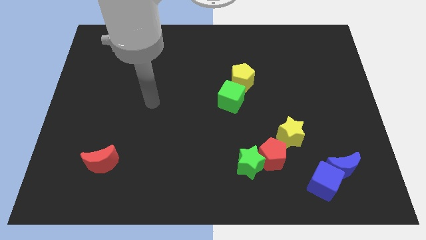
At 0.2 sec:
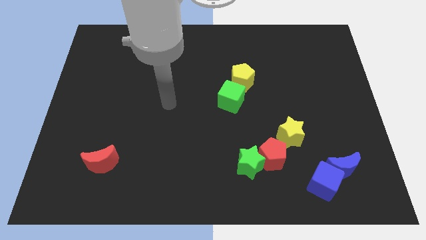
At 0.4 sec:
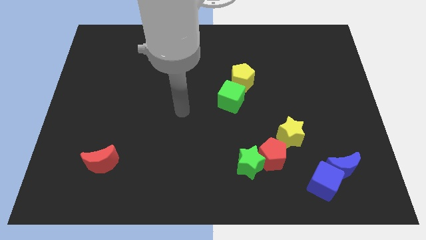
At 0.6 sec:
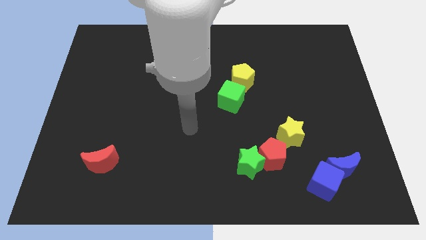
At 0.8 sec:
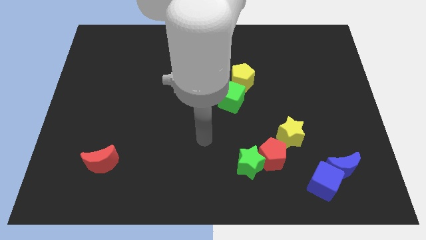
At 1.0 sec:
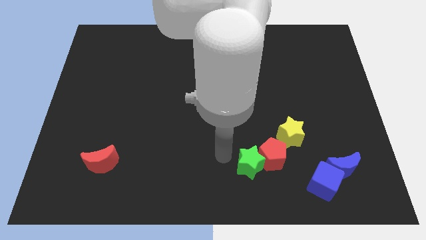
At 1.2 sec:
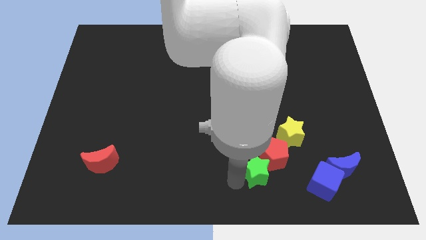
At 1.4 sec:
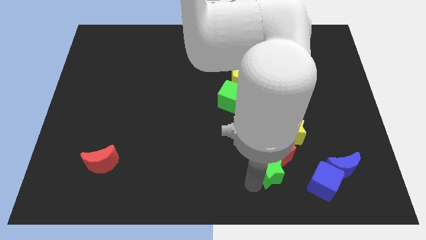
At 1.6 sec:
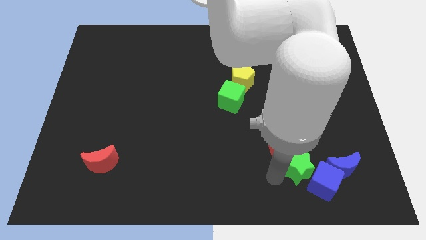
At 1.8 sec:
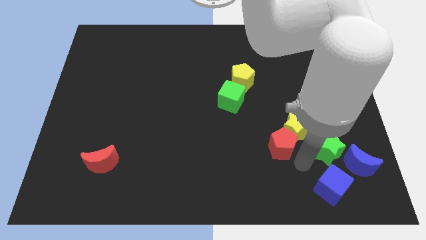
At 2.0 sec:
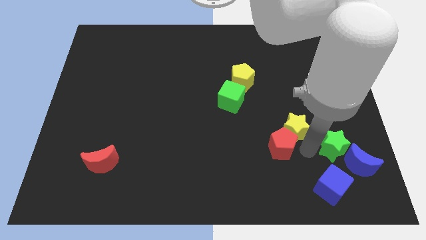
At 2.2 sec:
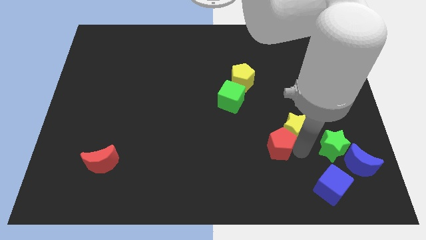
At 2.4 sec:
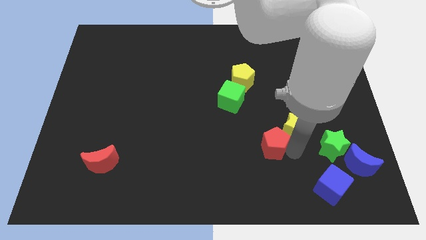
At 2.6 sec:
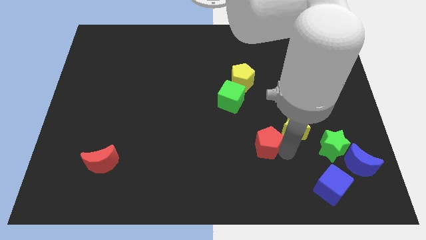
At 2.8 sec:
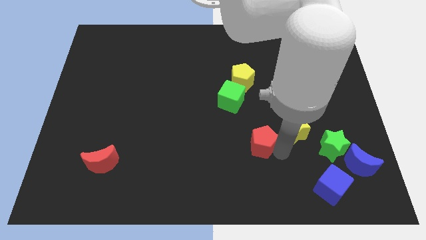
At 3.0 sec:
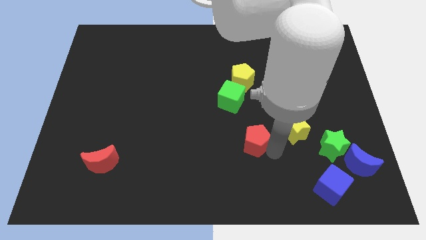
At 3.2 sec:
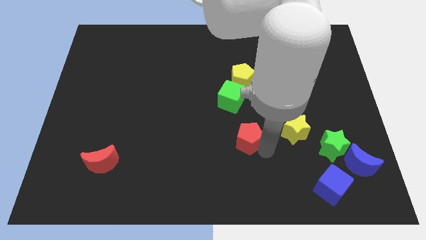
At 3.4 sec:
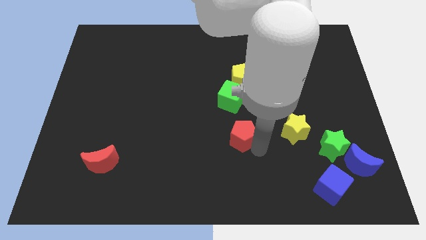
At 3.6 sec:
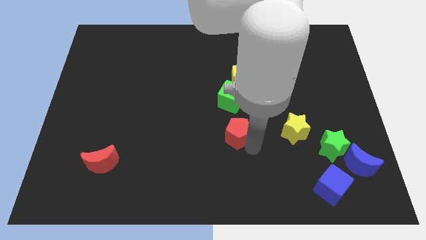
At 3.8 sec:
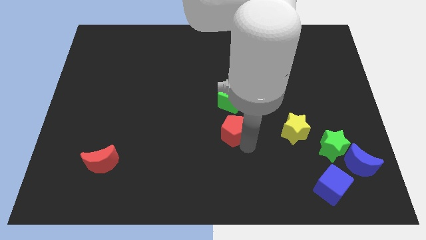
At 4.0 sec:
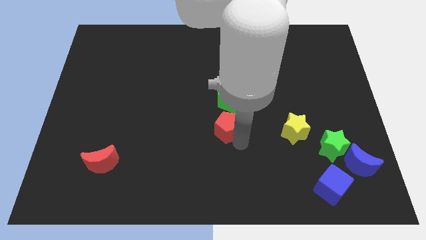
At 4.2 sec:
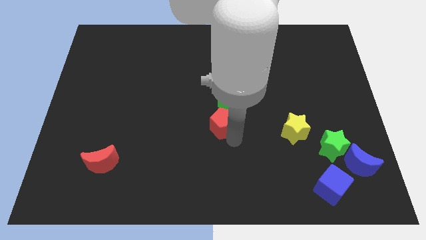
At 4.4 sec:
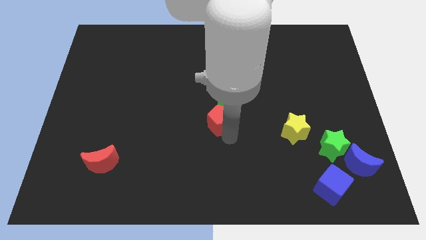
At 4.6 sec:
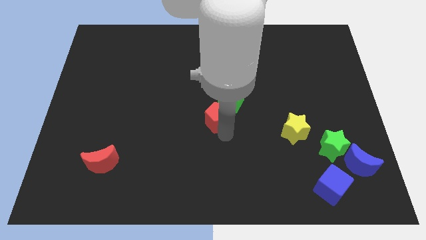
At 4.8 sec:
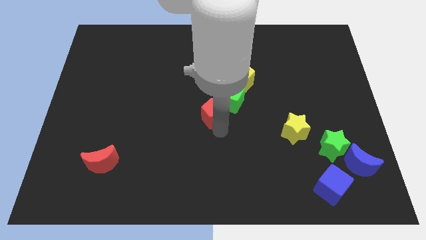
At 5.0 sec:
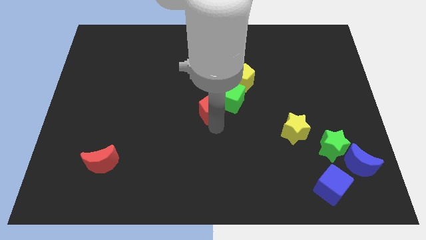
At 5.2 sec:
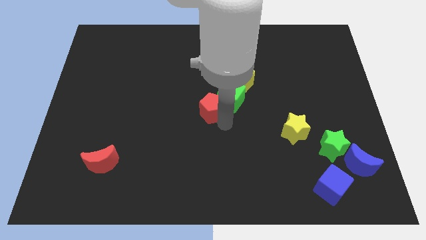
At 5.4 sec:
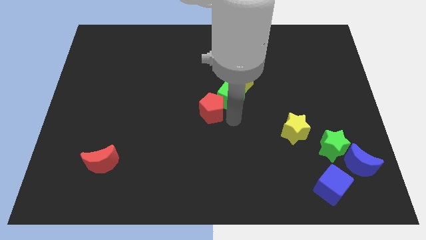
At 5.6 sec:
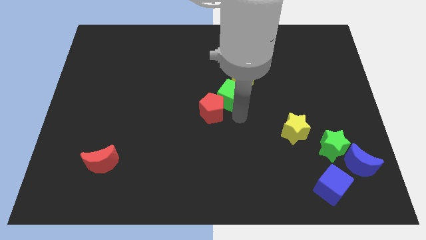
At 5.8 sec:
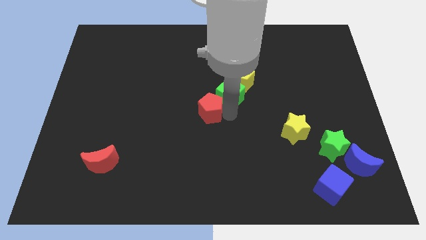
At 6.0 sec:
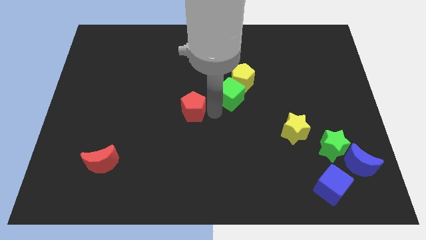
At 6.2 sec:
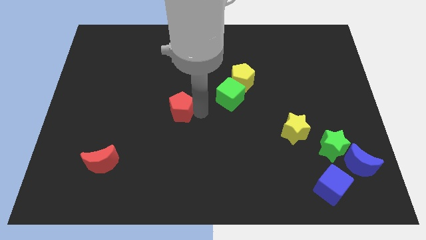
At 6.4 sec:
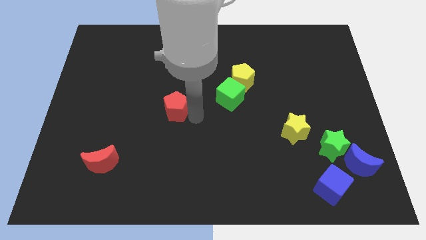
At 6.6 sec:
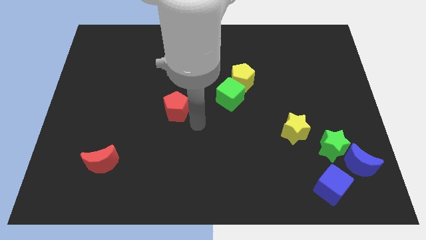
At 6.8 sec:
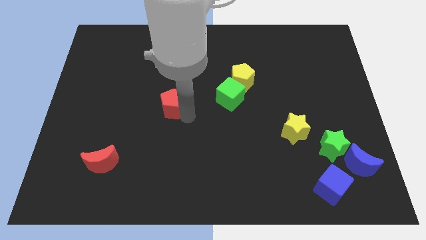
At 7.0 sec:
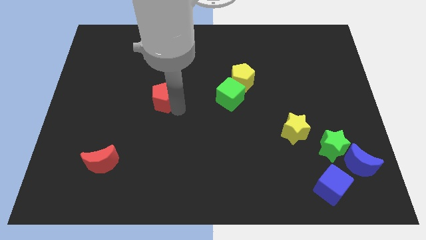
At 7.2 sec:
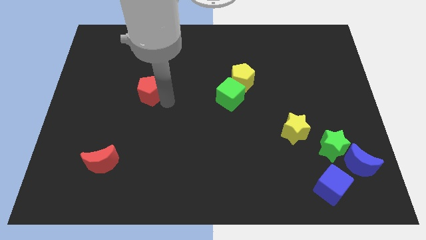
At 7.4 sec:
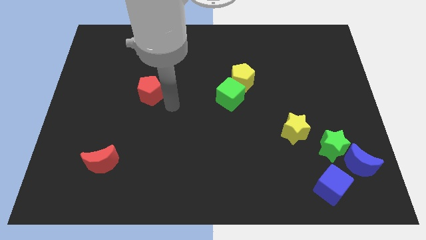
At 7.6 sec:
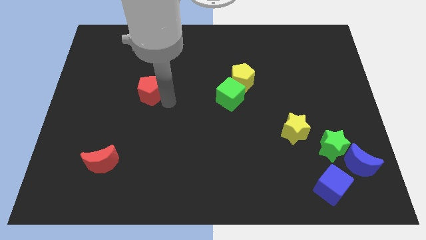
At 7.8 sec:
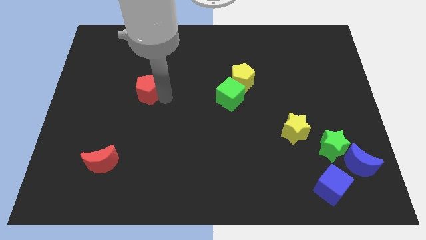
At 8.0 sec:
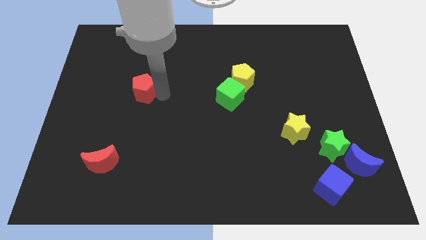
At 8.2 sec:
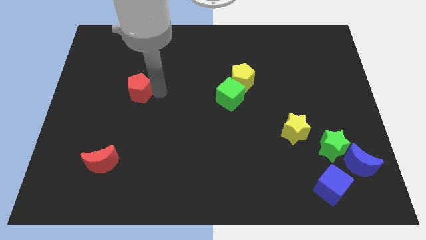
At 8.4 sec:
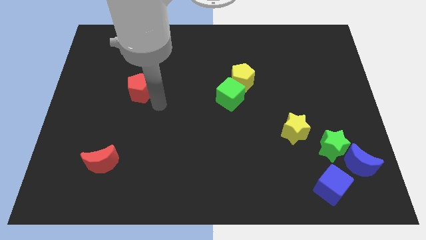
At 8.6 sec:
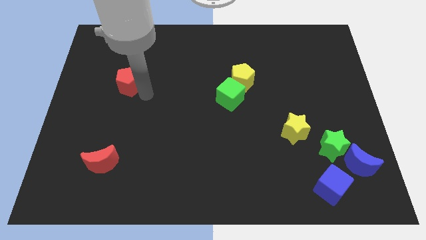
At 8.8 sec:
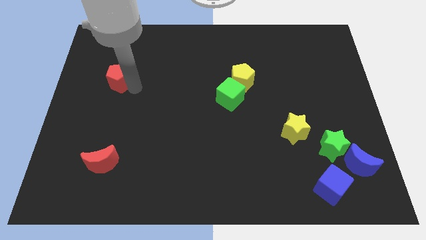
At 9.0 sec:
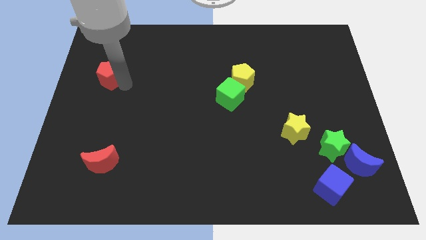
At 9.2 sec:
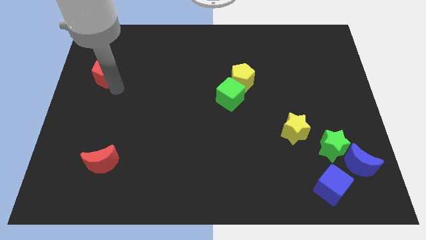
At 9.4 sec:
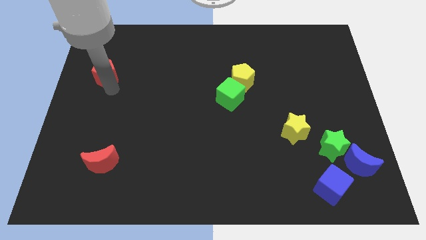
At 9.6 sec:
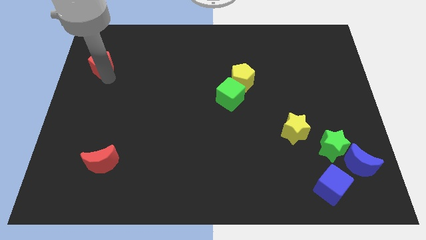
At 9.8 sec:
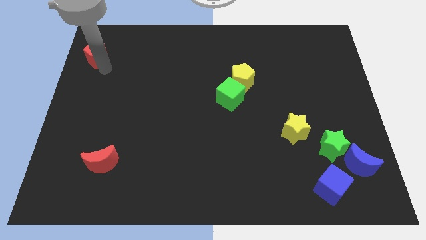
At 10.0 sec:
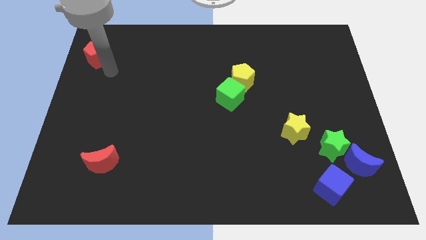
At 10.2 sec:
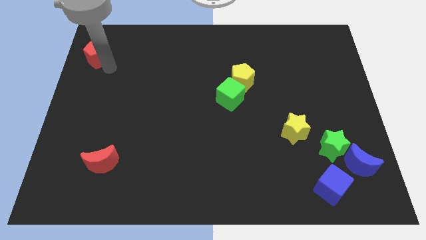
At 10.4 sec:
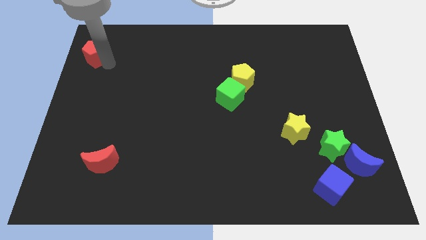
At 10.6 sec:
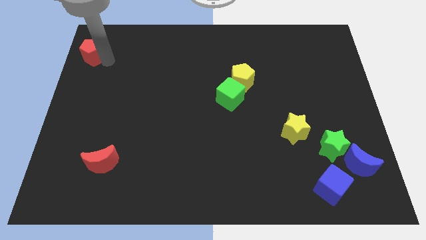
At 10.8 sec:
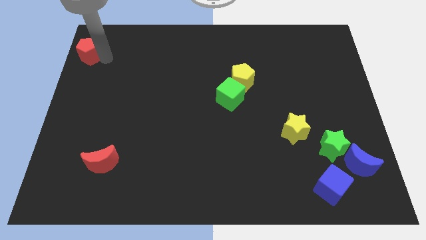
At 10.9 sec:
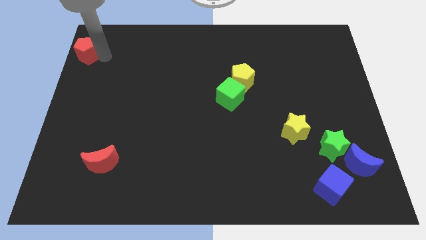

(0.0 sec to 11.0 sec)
push the red pentagon to the top left
